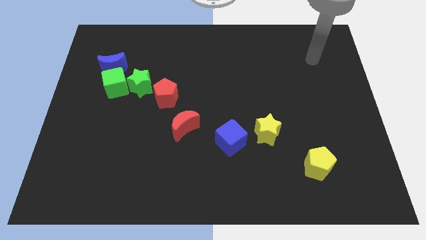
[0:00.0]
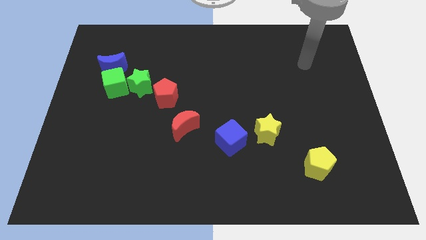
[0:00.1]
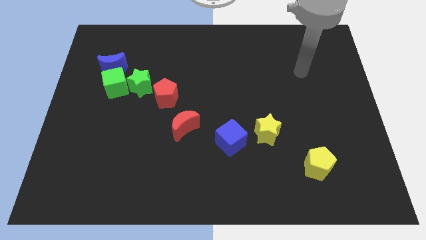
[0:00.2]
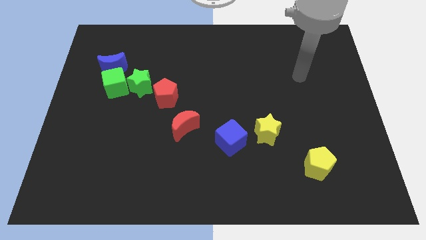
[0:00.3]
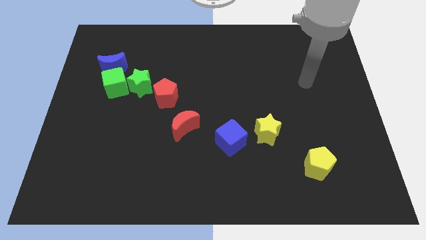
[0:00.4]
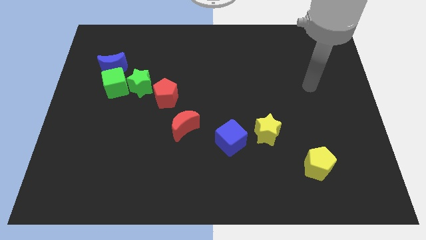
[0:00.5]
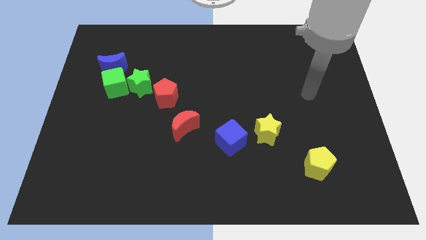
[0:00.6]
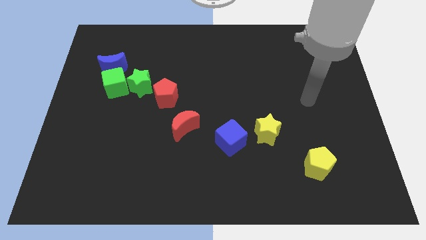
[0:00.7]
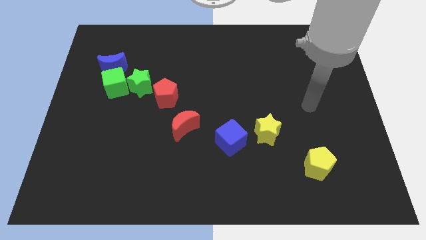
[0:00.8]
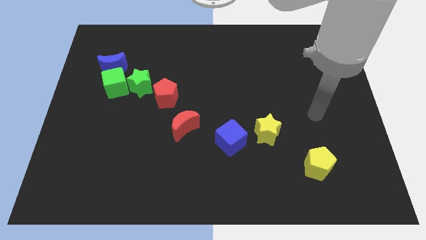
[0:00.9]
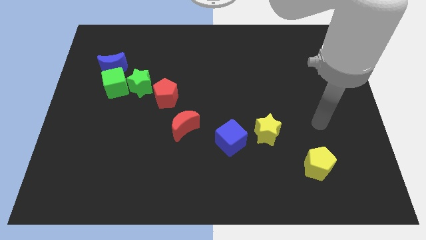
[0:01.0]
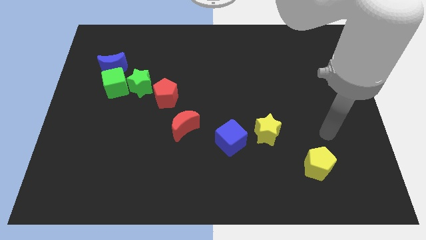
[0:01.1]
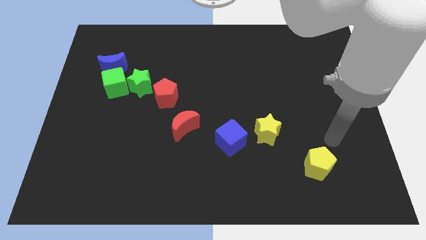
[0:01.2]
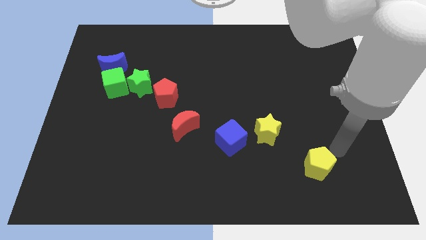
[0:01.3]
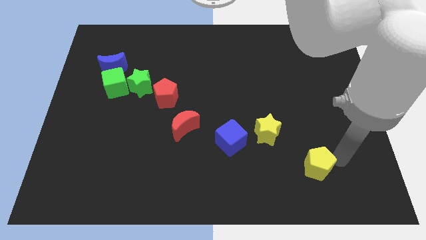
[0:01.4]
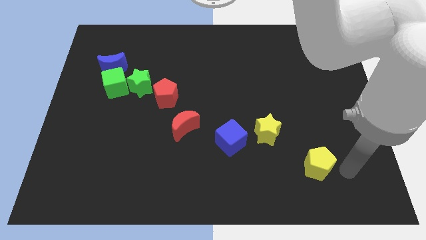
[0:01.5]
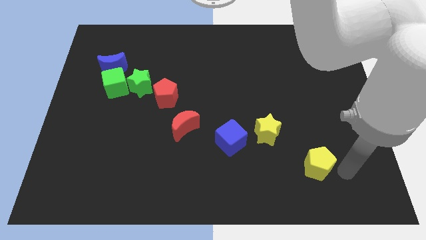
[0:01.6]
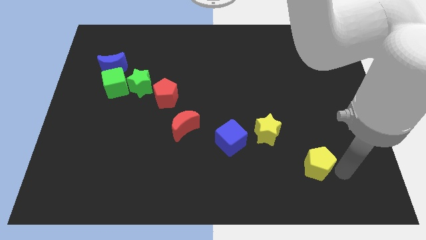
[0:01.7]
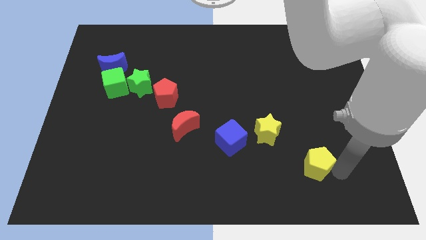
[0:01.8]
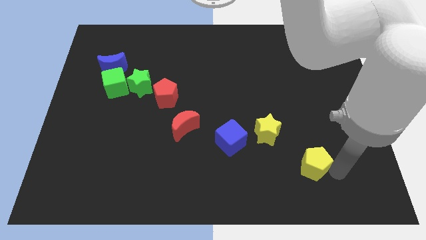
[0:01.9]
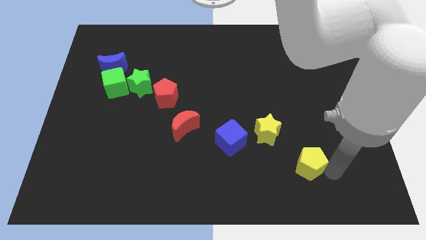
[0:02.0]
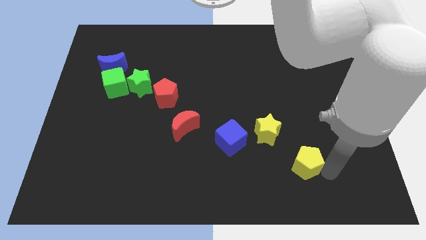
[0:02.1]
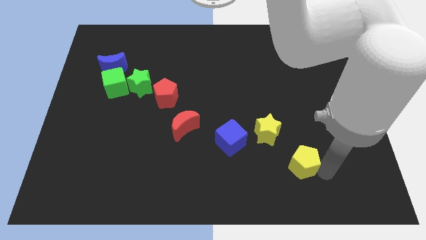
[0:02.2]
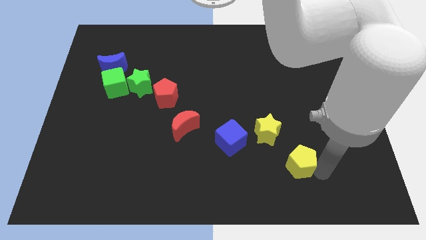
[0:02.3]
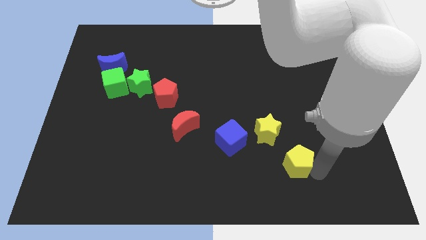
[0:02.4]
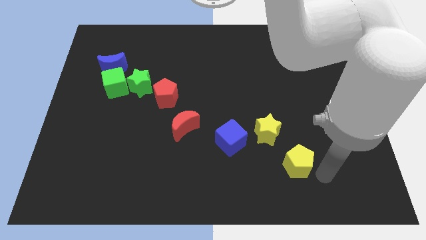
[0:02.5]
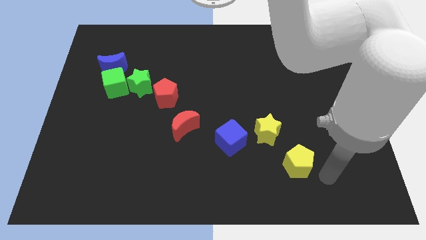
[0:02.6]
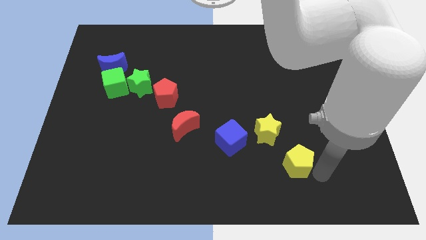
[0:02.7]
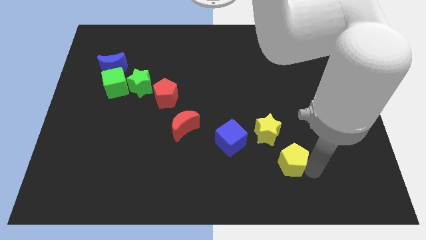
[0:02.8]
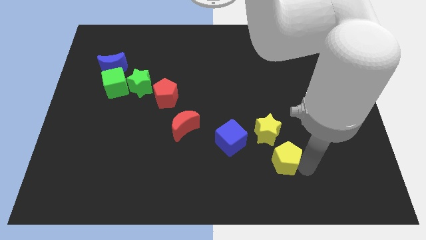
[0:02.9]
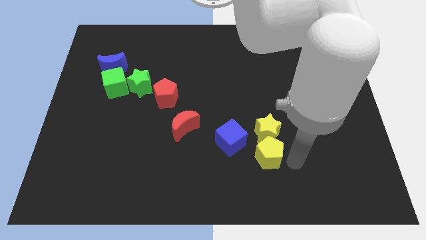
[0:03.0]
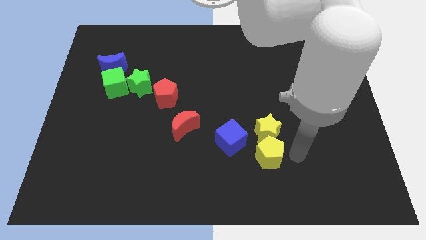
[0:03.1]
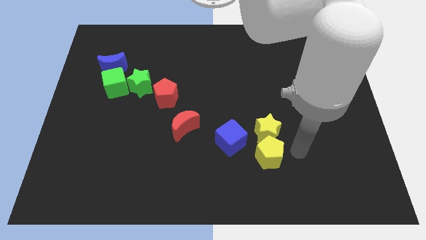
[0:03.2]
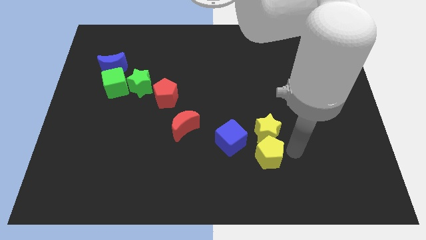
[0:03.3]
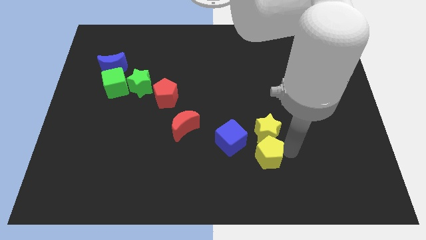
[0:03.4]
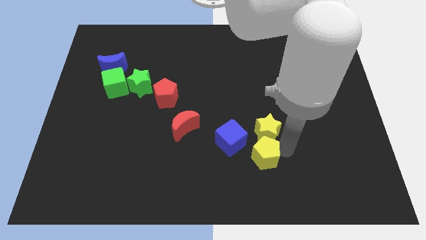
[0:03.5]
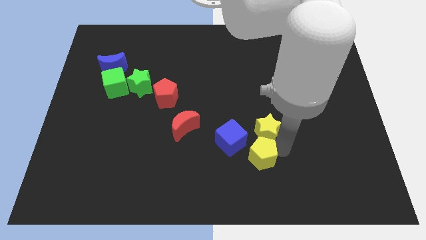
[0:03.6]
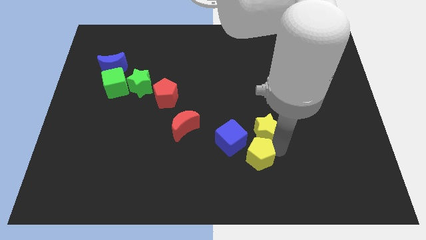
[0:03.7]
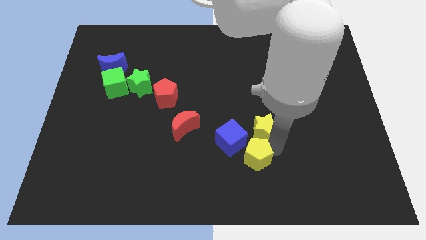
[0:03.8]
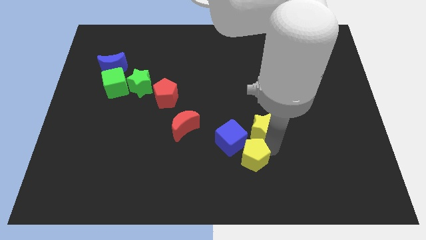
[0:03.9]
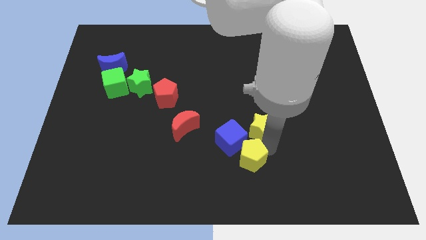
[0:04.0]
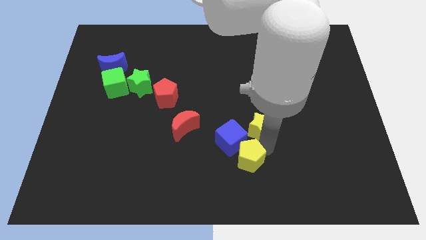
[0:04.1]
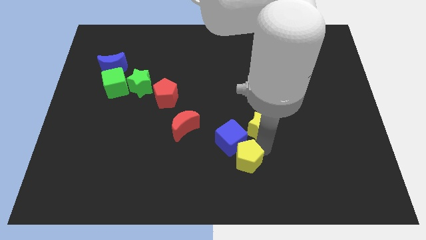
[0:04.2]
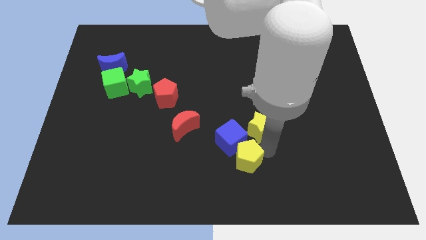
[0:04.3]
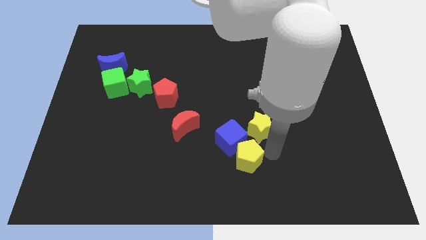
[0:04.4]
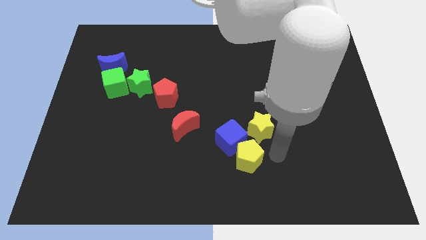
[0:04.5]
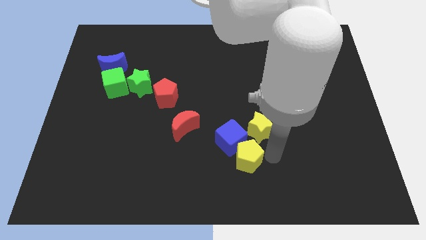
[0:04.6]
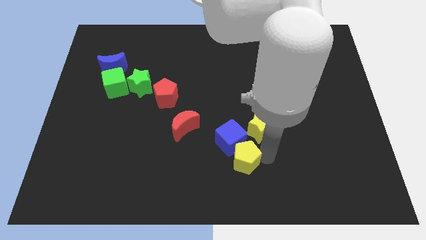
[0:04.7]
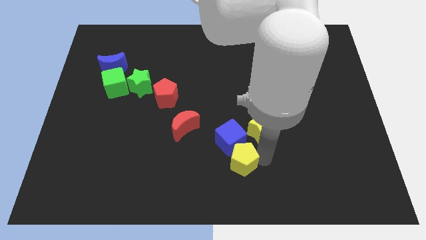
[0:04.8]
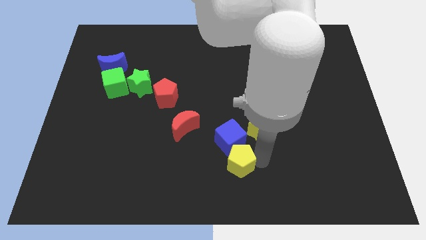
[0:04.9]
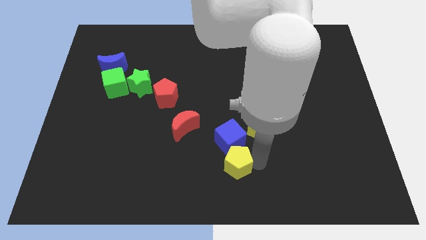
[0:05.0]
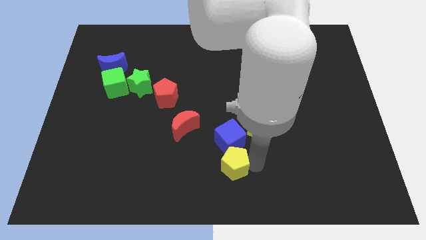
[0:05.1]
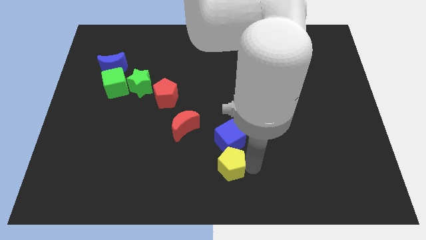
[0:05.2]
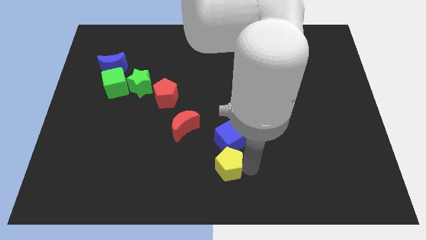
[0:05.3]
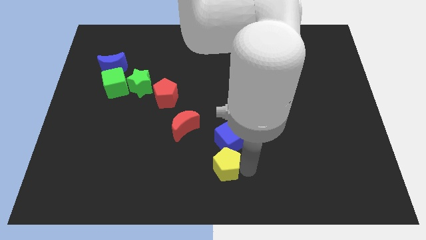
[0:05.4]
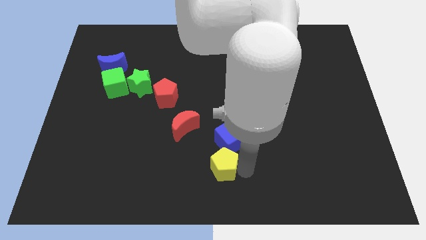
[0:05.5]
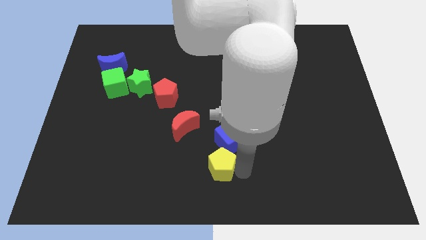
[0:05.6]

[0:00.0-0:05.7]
slide the yellow pentagon left

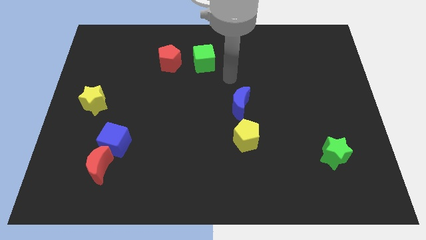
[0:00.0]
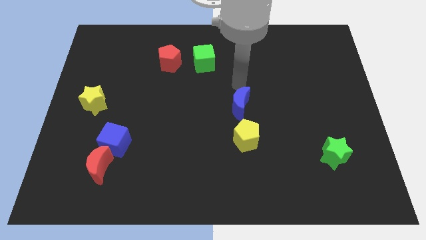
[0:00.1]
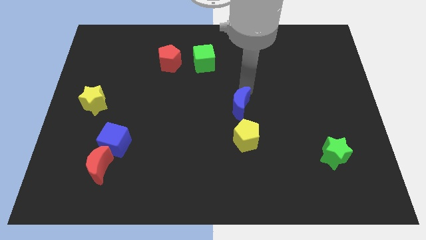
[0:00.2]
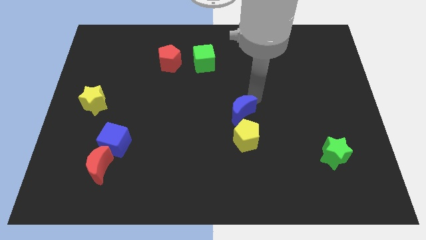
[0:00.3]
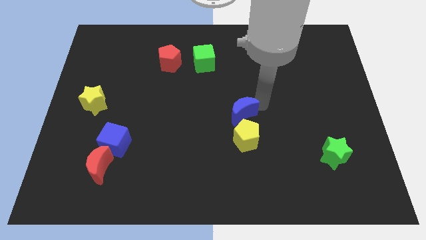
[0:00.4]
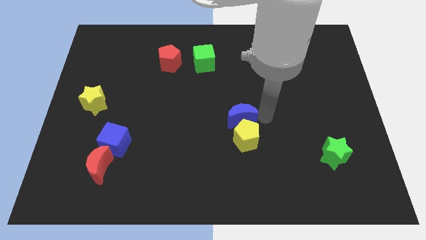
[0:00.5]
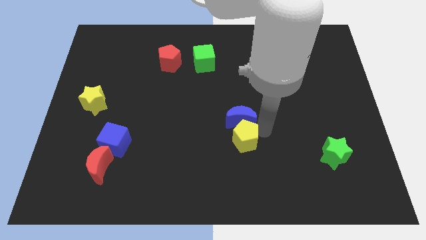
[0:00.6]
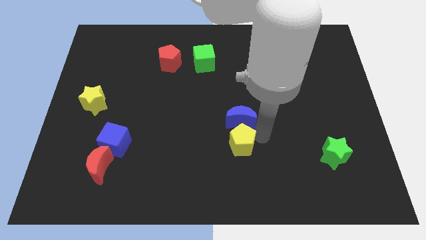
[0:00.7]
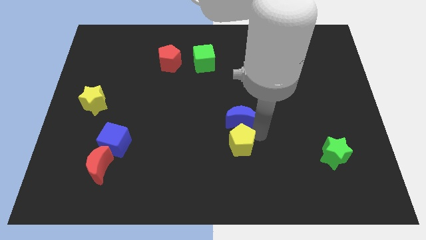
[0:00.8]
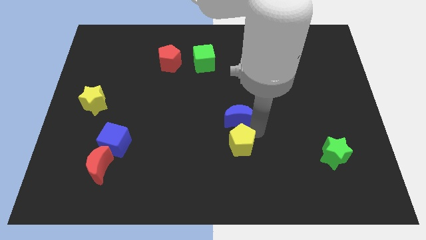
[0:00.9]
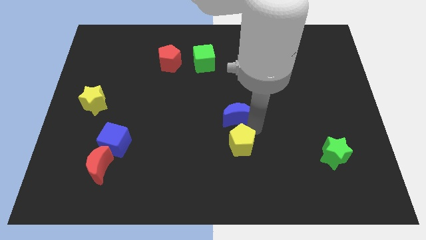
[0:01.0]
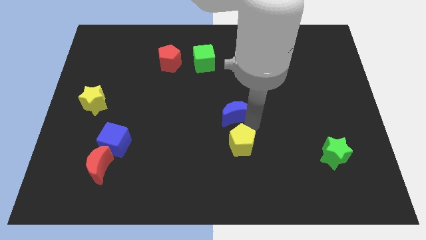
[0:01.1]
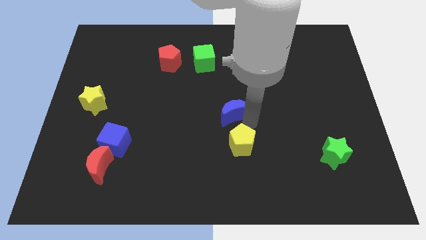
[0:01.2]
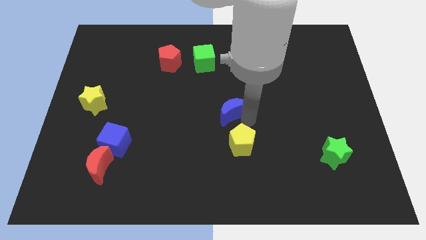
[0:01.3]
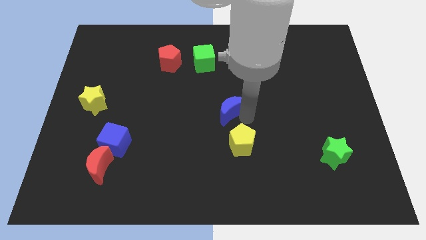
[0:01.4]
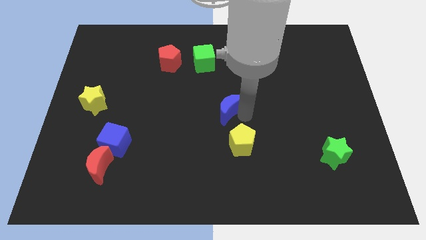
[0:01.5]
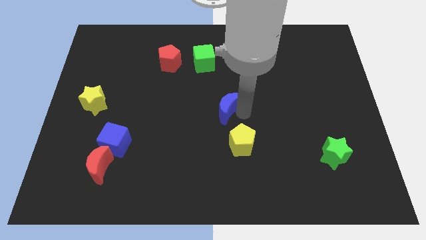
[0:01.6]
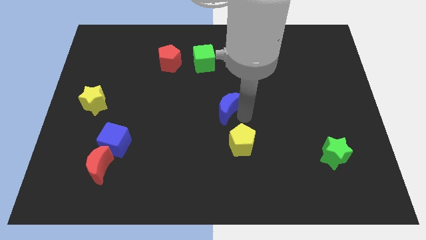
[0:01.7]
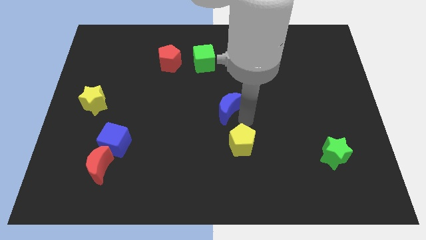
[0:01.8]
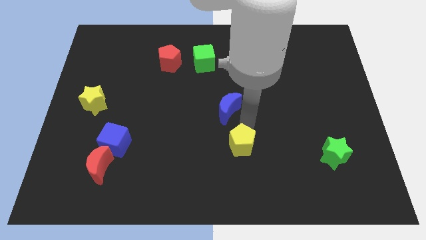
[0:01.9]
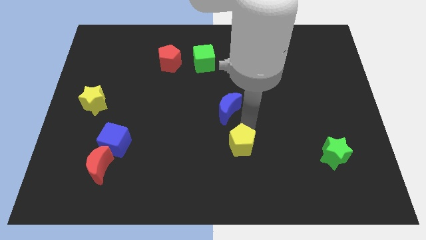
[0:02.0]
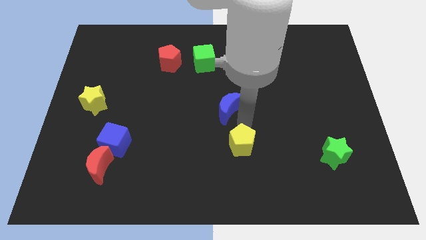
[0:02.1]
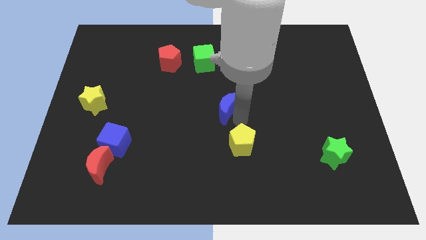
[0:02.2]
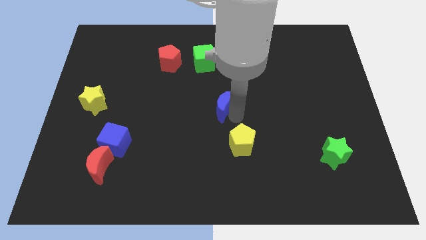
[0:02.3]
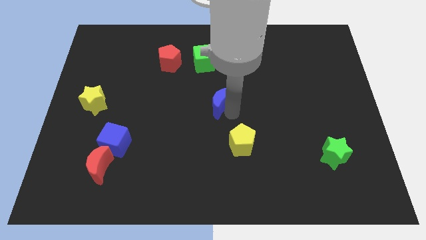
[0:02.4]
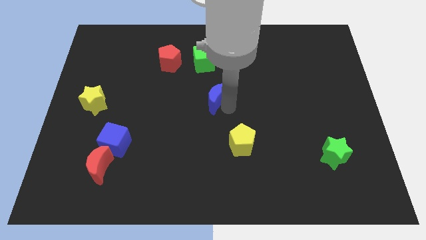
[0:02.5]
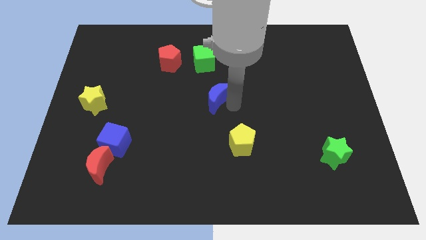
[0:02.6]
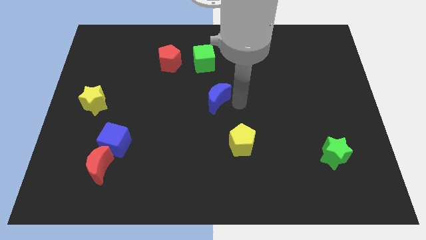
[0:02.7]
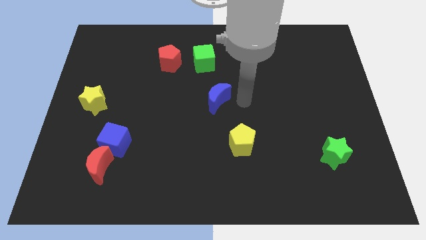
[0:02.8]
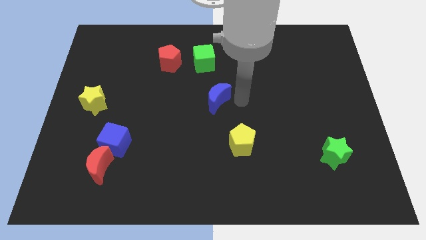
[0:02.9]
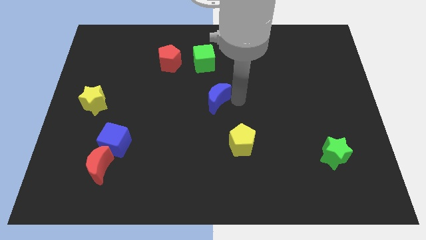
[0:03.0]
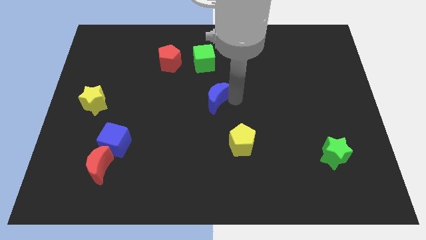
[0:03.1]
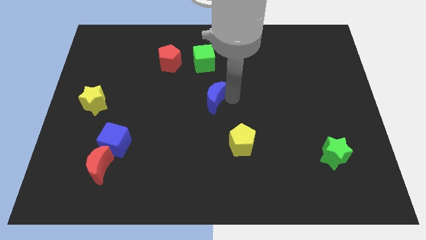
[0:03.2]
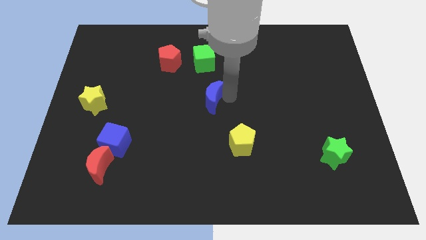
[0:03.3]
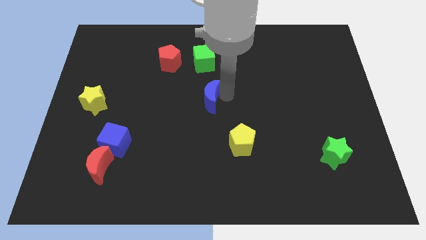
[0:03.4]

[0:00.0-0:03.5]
slightly push the blue moon left
